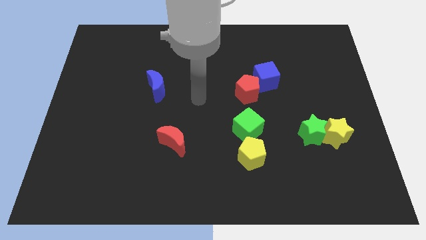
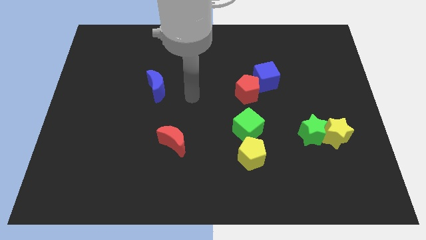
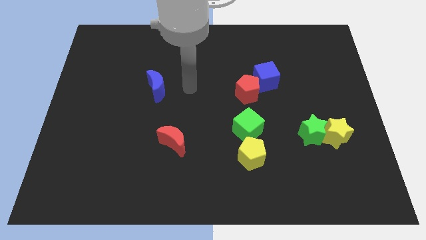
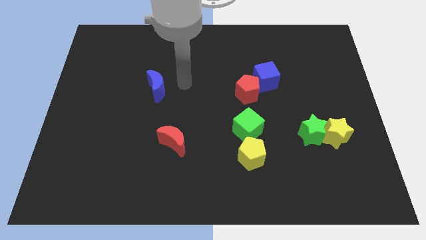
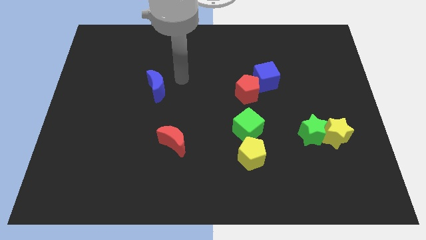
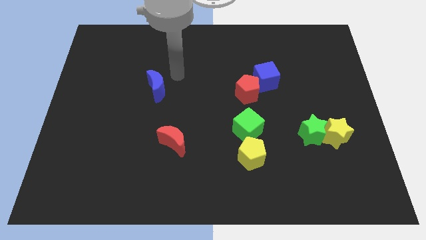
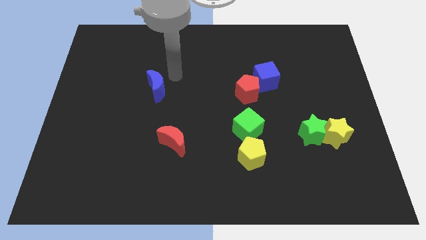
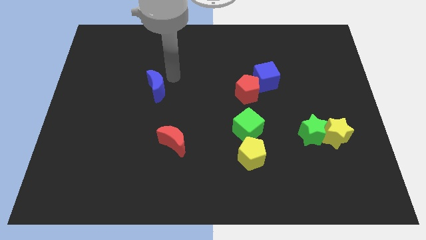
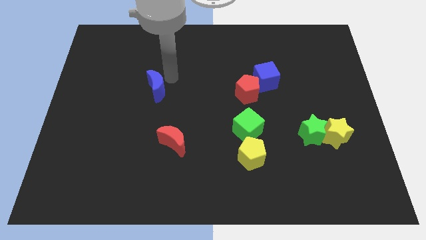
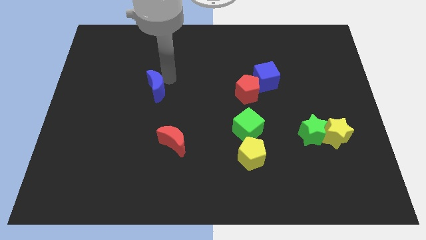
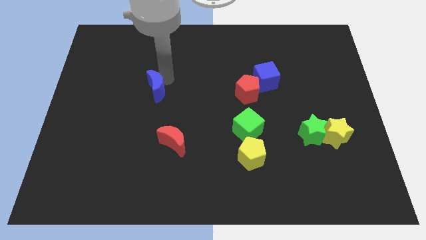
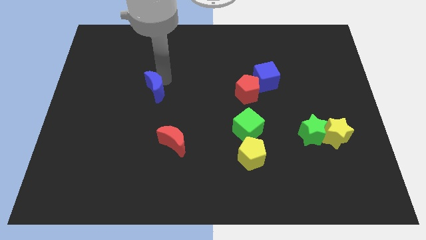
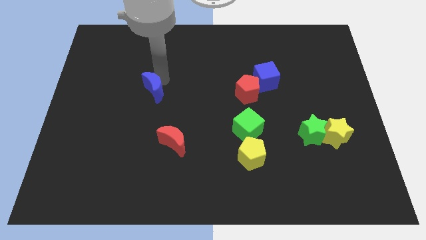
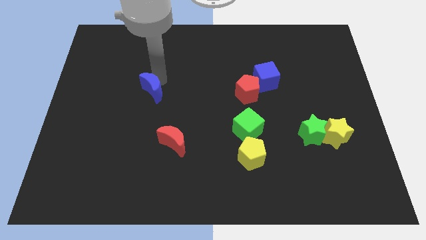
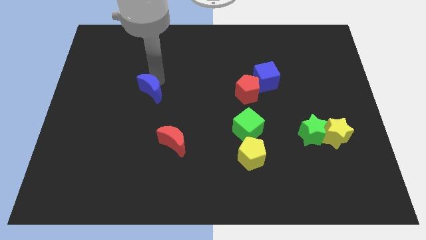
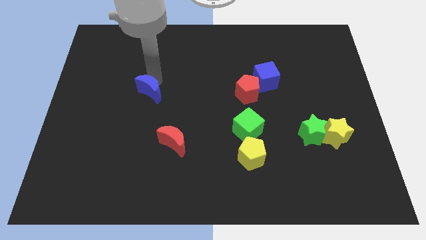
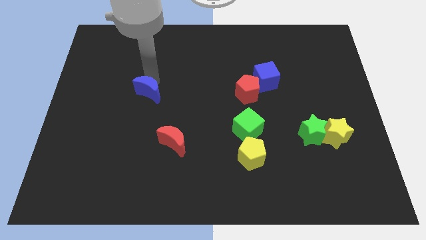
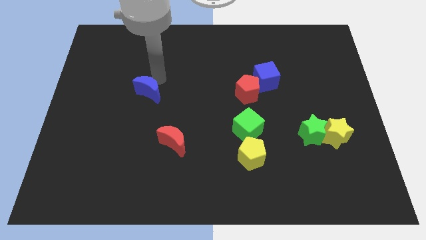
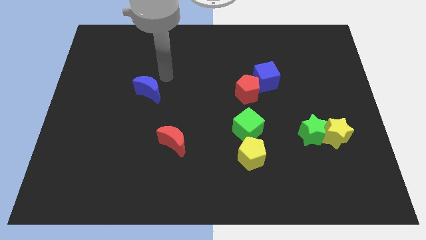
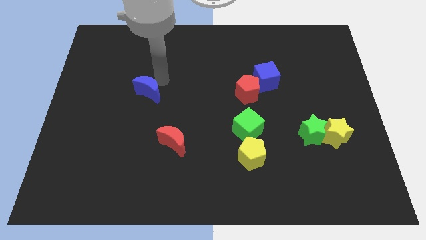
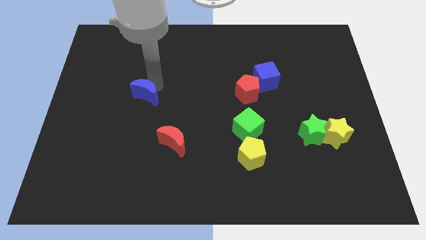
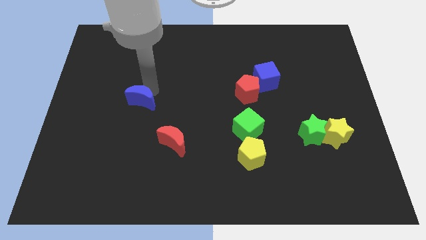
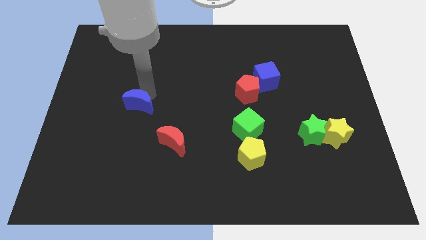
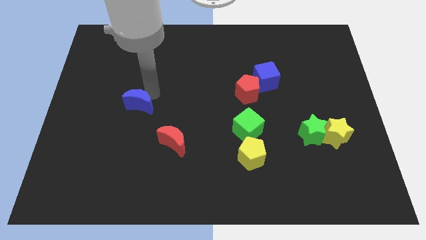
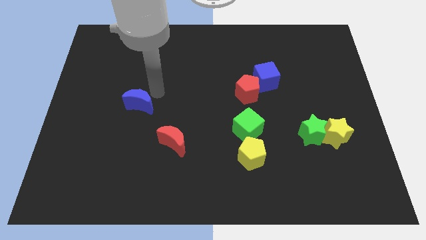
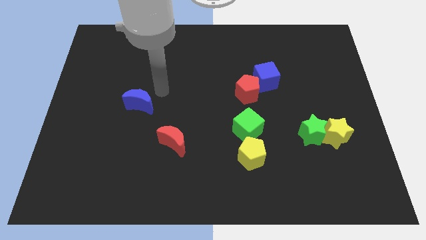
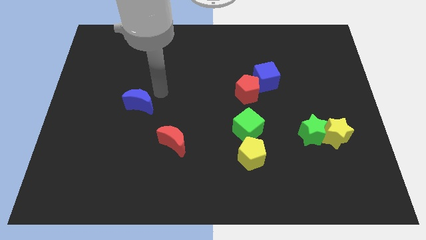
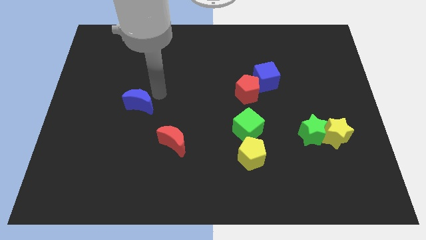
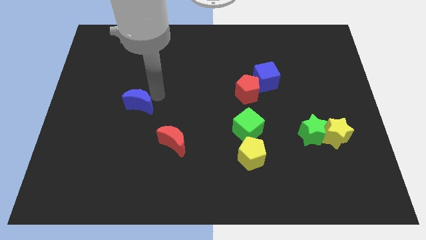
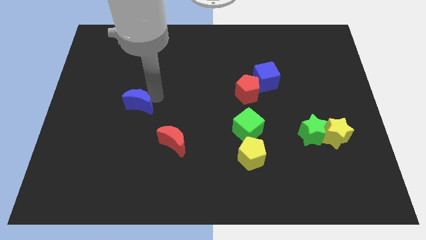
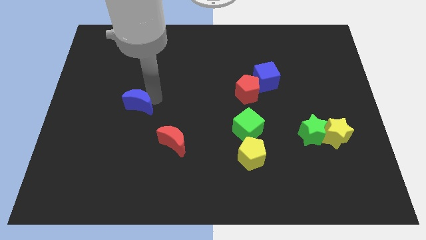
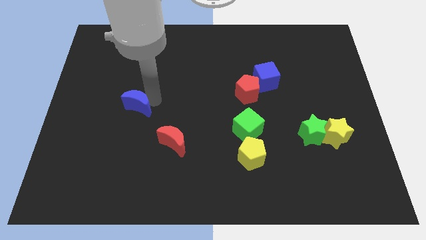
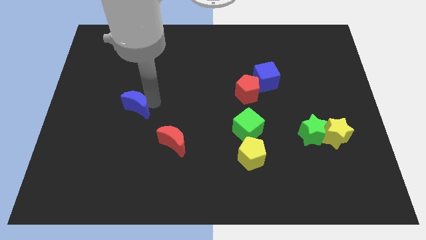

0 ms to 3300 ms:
slightly move the blue moon diagonally downwards and to the left

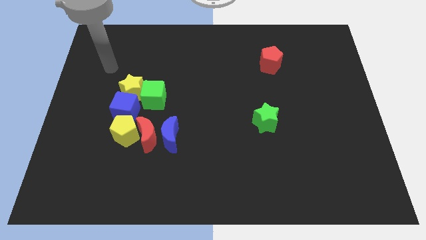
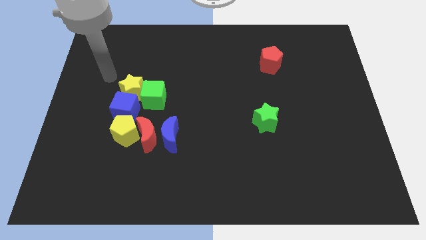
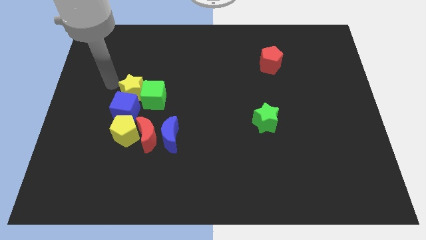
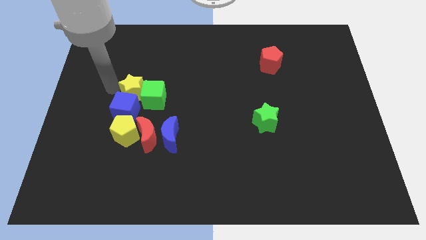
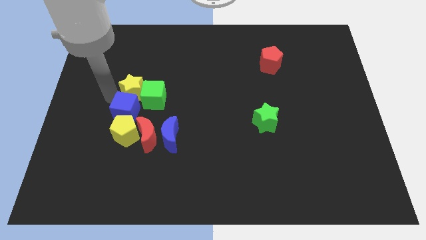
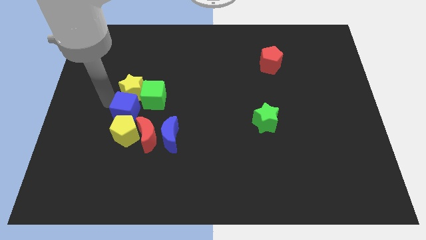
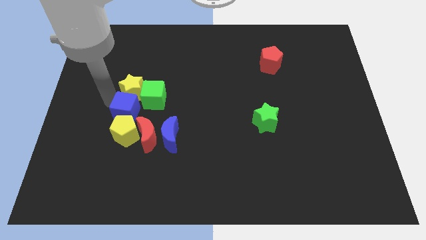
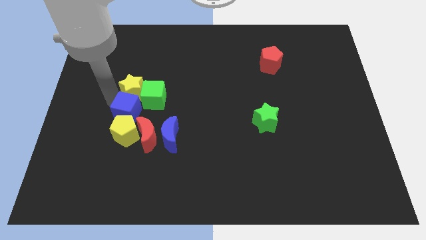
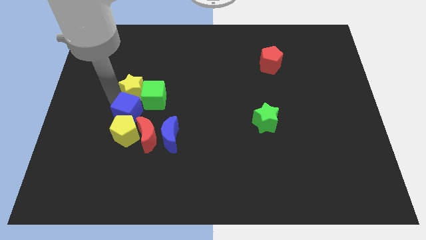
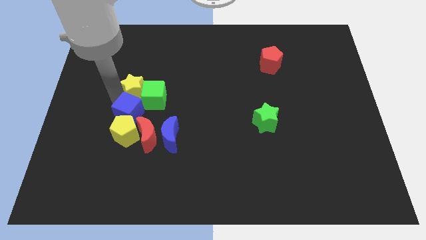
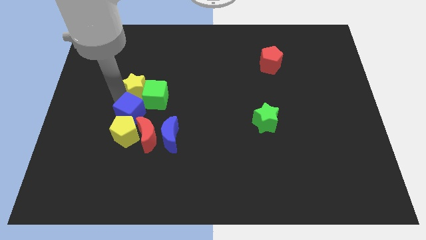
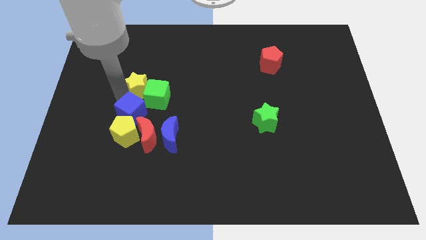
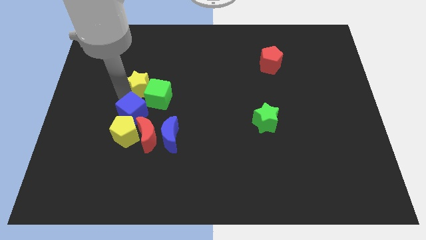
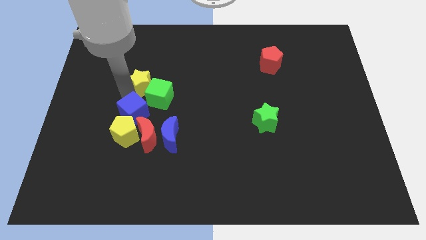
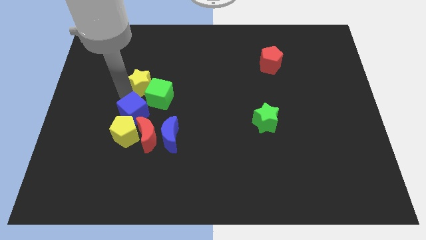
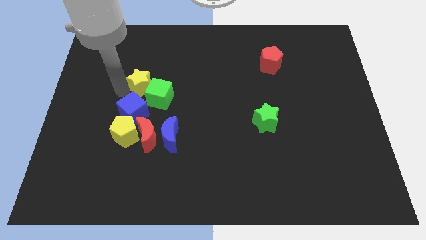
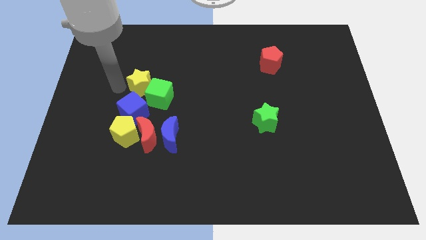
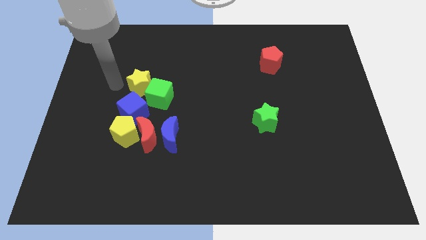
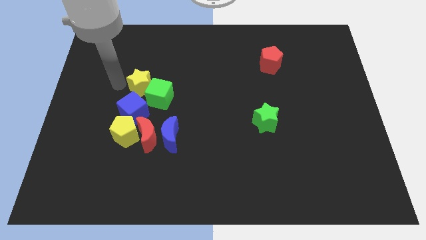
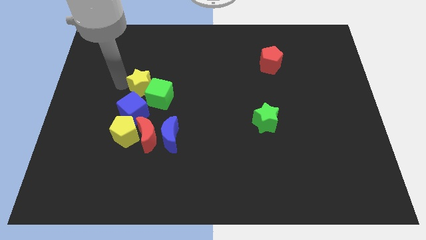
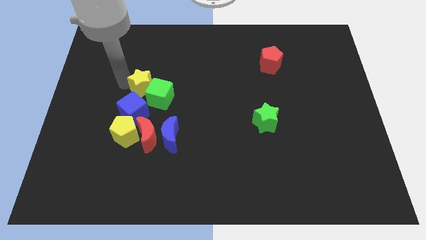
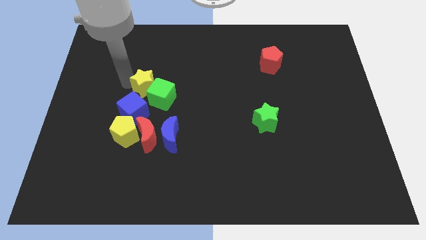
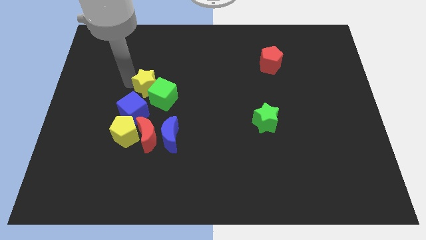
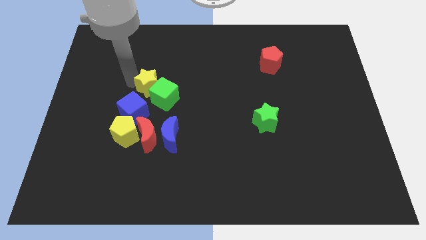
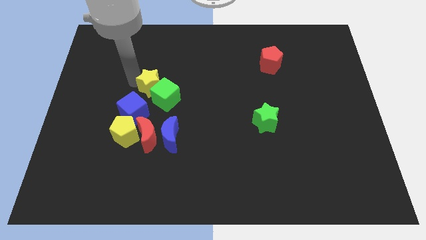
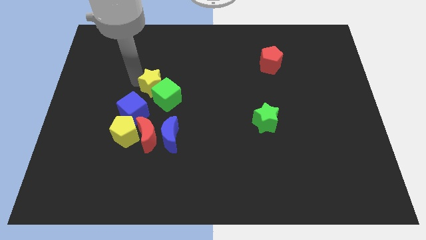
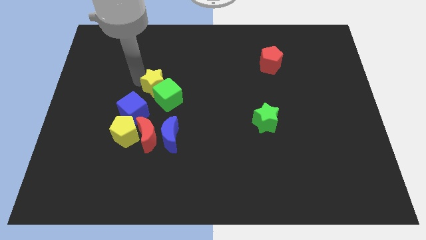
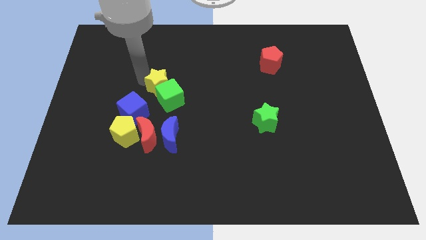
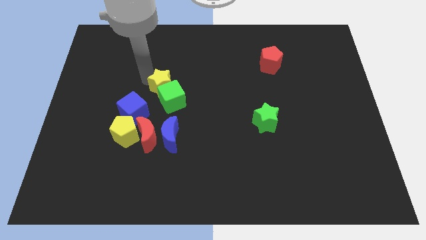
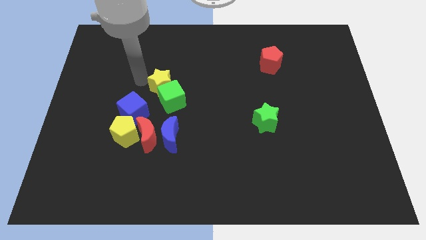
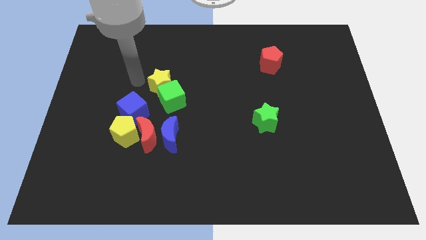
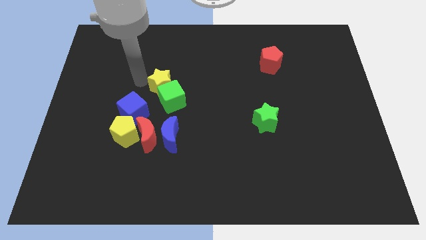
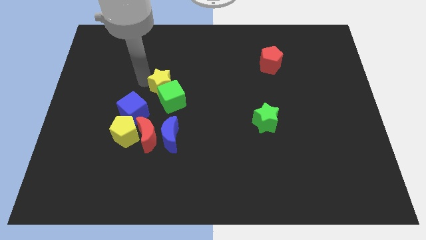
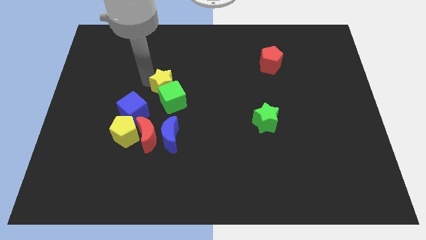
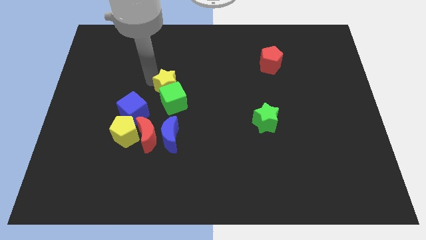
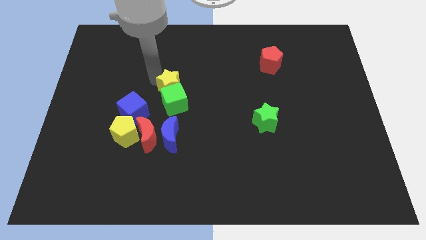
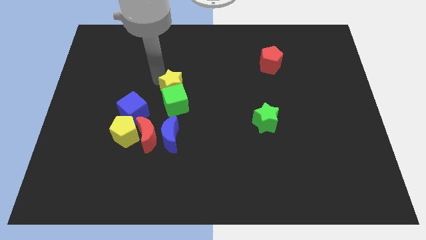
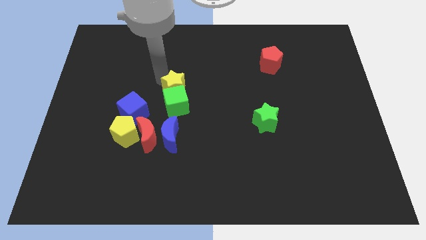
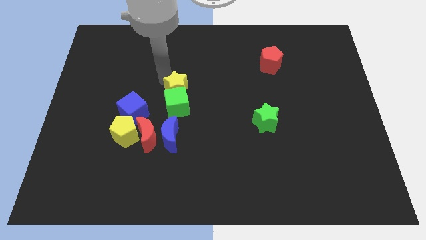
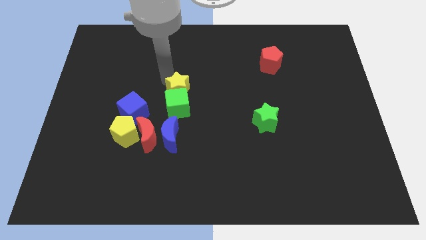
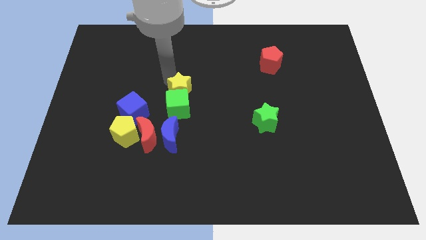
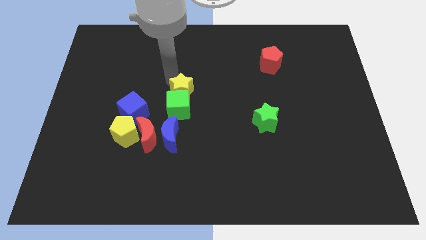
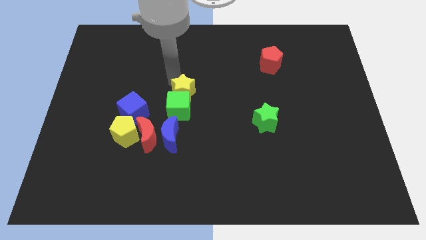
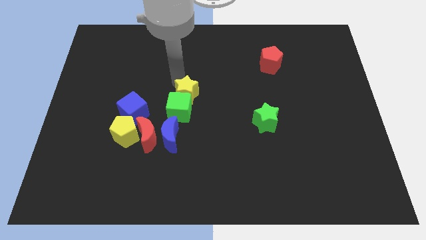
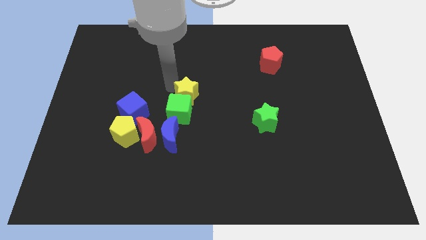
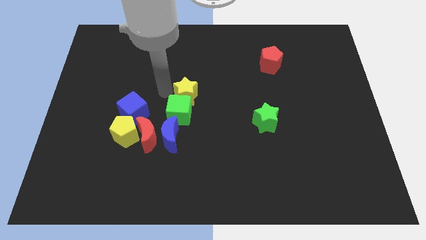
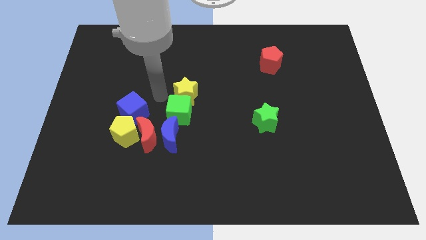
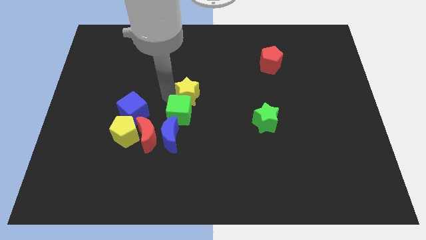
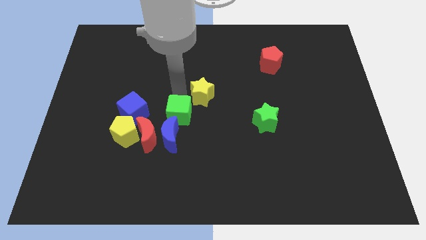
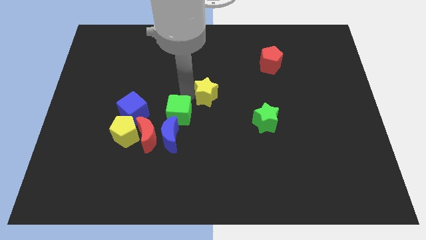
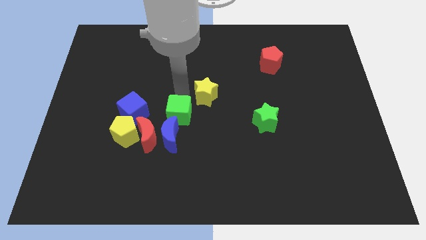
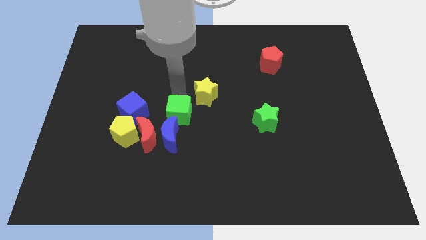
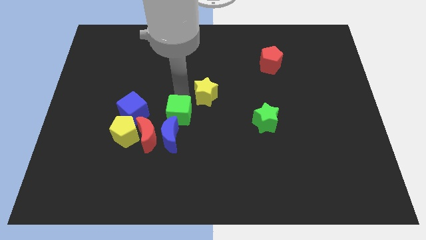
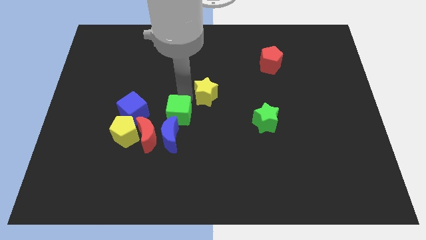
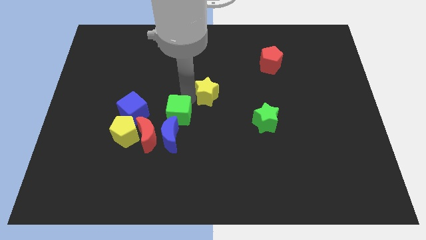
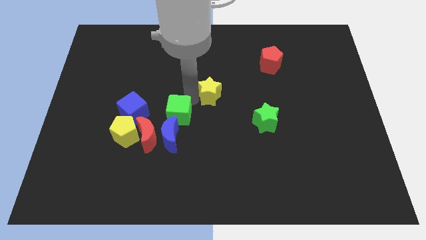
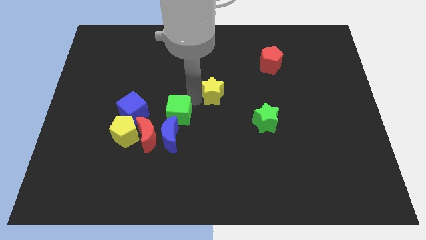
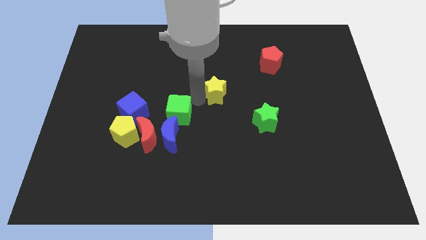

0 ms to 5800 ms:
slide the yellow star to the right
